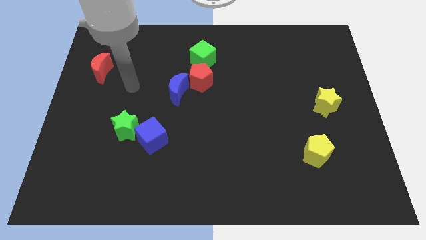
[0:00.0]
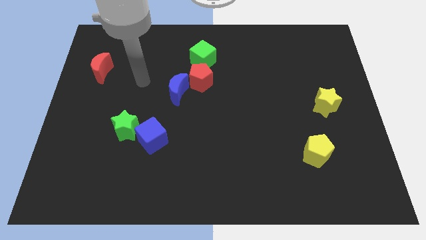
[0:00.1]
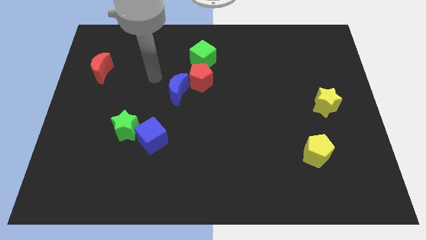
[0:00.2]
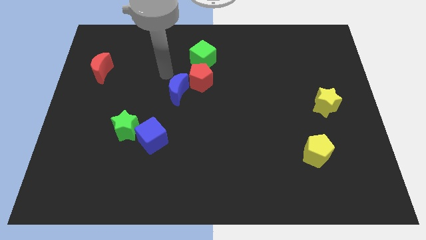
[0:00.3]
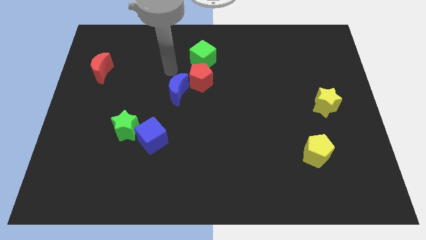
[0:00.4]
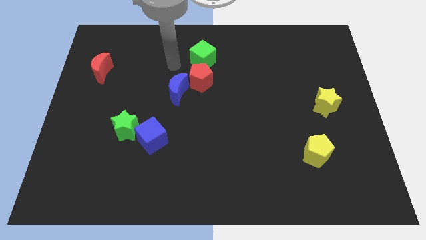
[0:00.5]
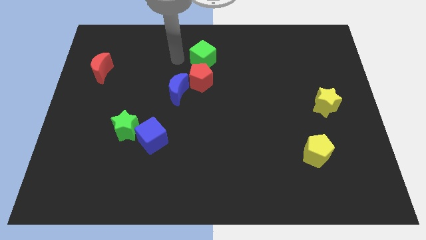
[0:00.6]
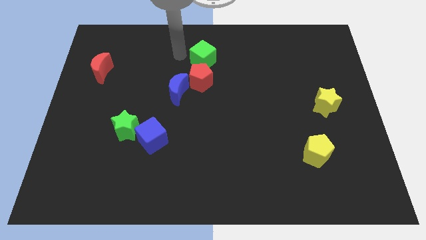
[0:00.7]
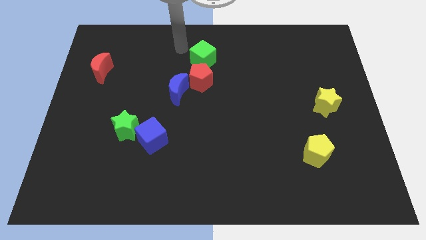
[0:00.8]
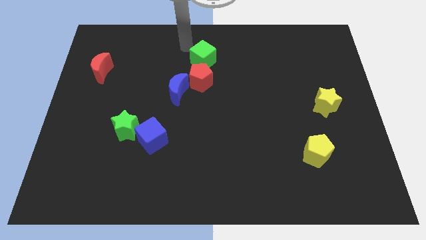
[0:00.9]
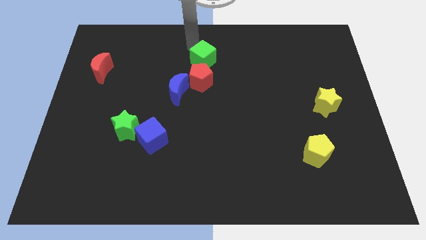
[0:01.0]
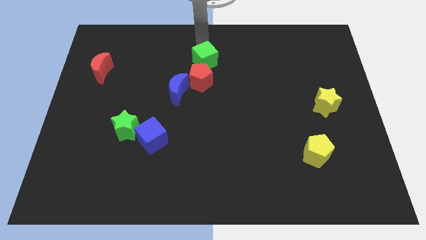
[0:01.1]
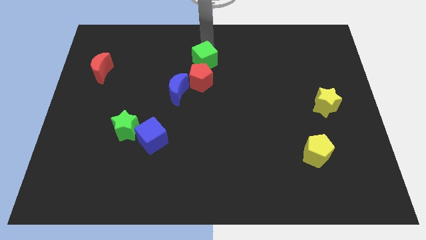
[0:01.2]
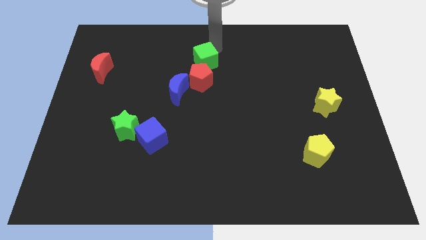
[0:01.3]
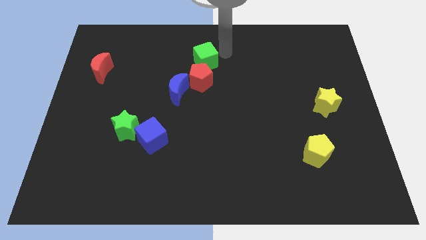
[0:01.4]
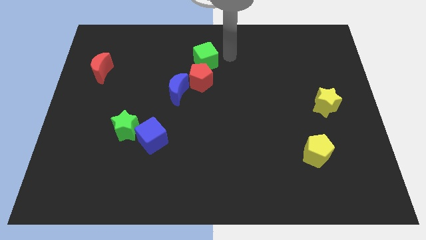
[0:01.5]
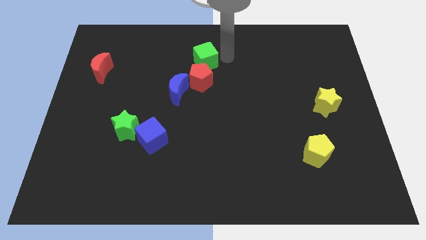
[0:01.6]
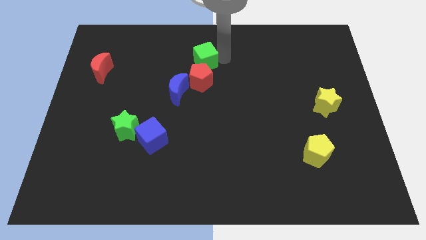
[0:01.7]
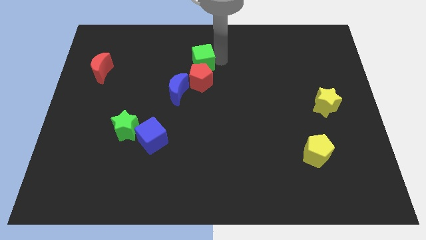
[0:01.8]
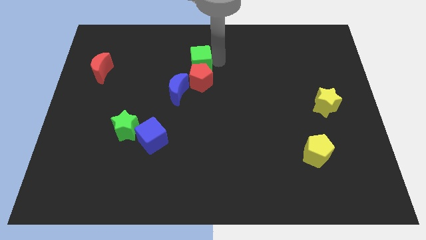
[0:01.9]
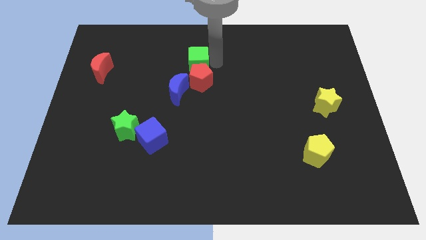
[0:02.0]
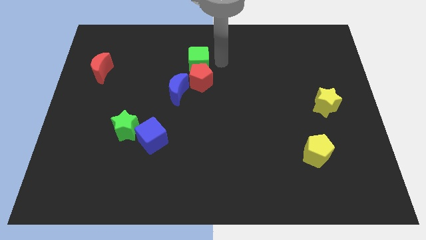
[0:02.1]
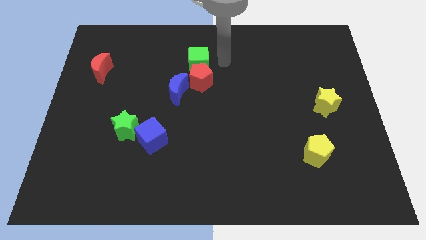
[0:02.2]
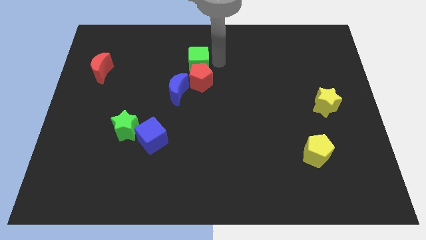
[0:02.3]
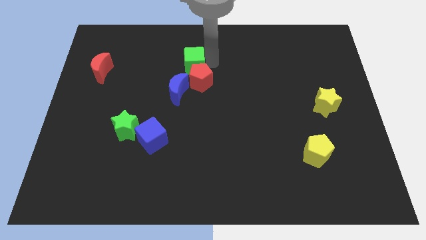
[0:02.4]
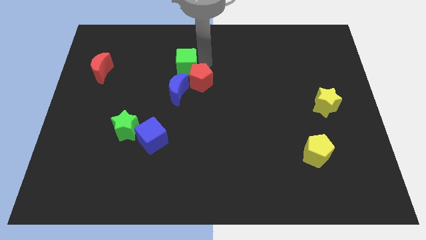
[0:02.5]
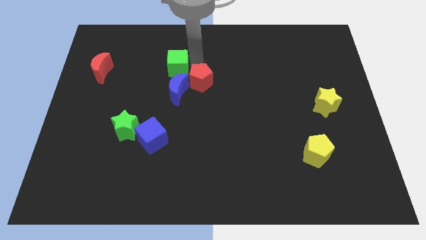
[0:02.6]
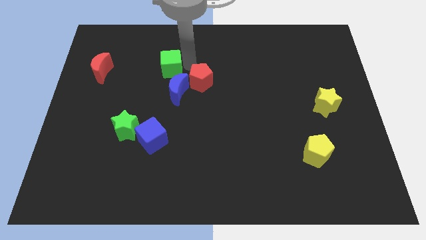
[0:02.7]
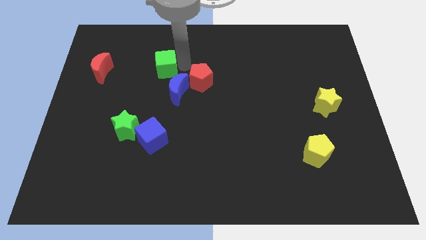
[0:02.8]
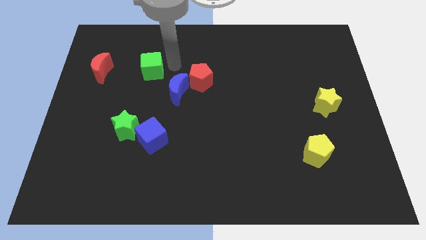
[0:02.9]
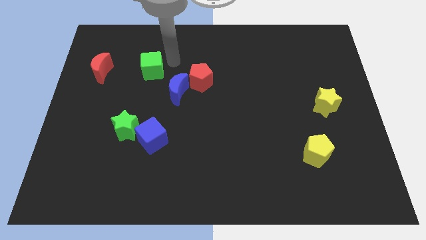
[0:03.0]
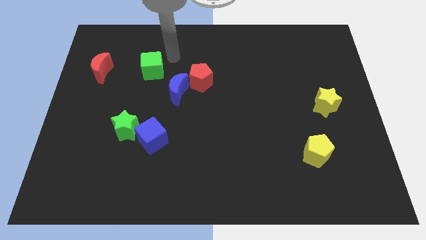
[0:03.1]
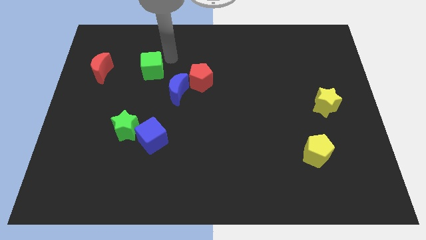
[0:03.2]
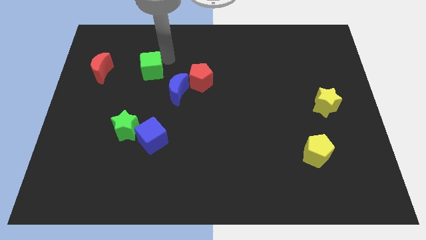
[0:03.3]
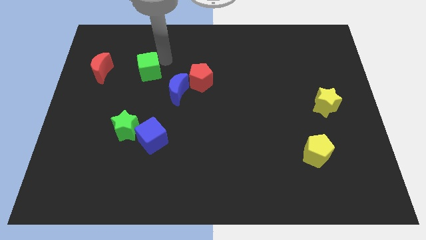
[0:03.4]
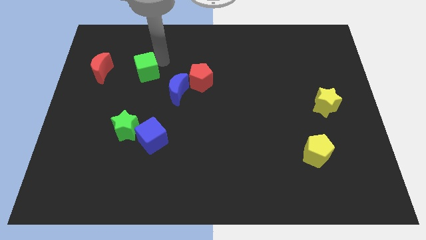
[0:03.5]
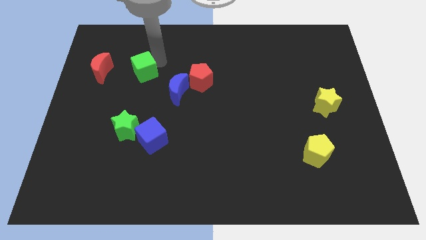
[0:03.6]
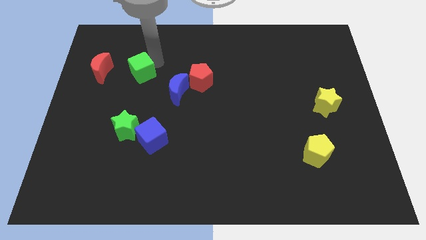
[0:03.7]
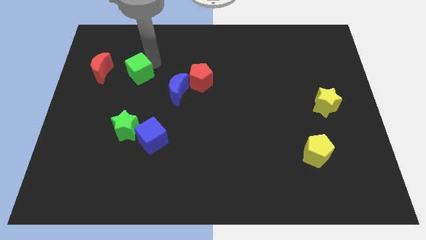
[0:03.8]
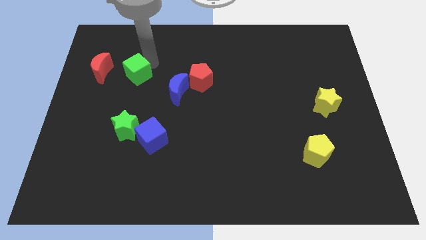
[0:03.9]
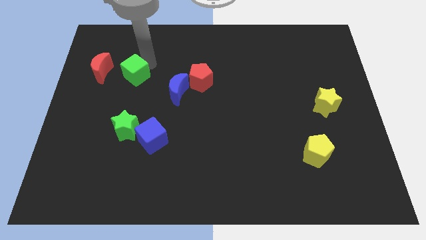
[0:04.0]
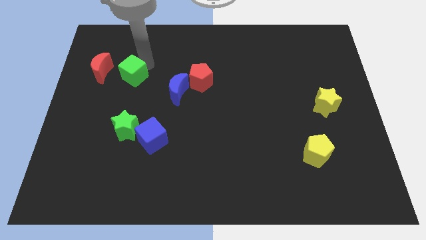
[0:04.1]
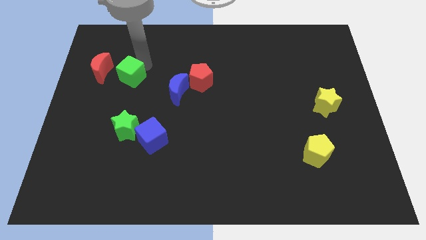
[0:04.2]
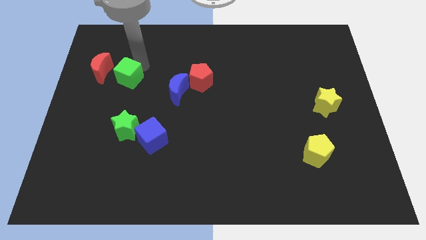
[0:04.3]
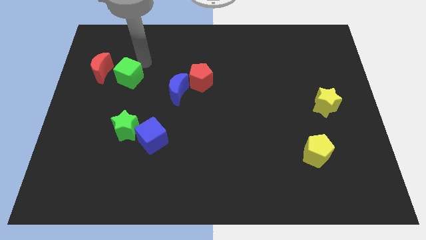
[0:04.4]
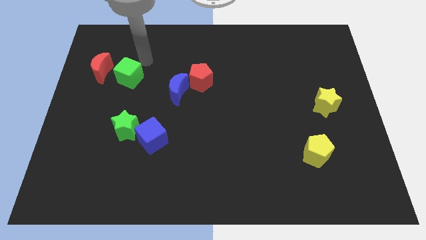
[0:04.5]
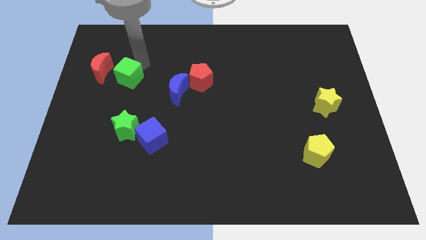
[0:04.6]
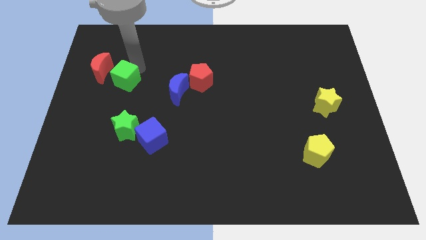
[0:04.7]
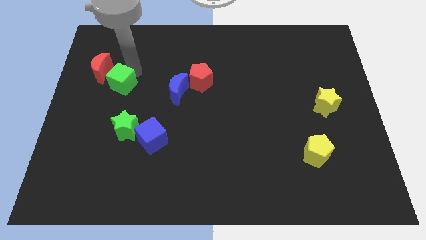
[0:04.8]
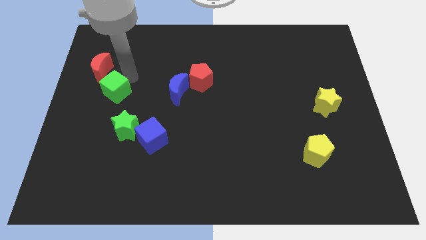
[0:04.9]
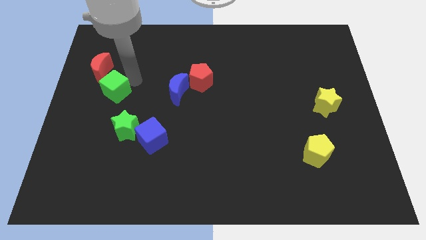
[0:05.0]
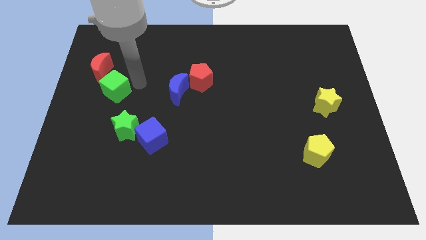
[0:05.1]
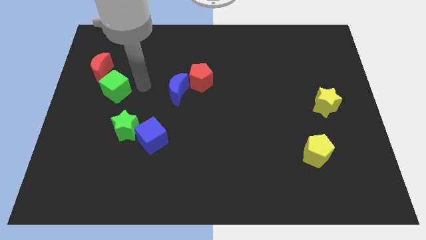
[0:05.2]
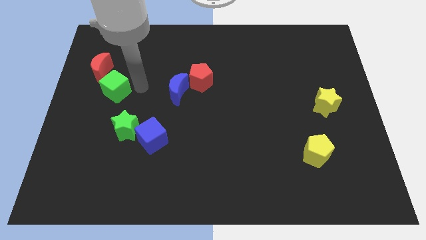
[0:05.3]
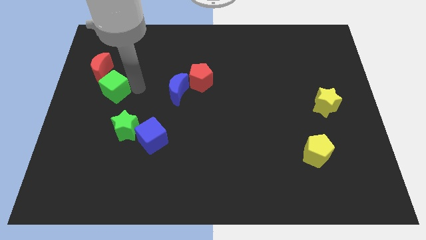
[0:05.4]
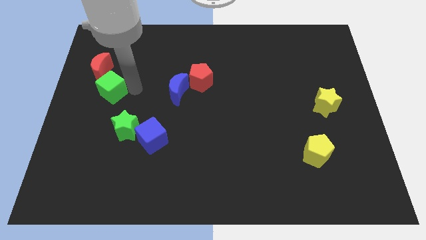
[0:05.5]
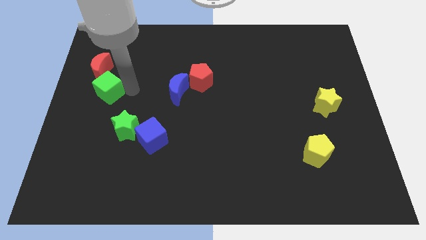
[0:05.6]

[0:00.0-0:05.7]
move the green cube to the left side of the board

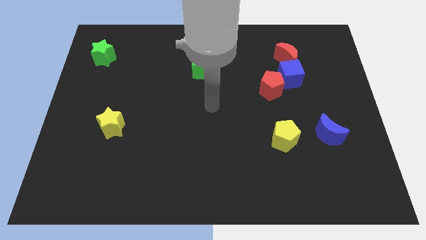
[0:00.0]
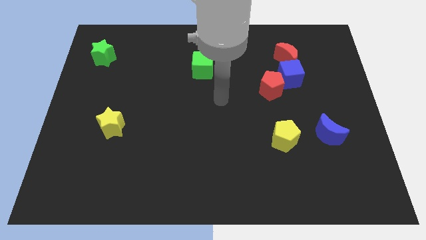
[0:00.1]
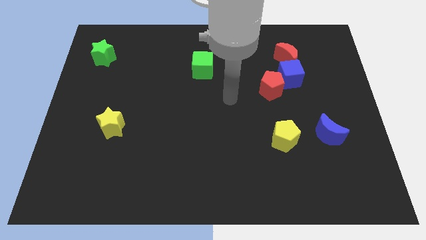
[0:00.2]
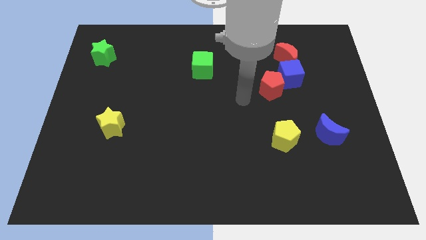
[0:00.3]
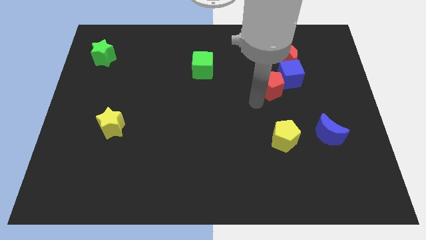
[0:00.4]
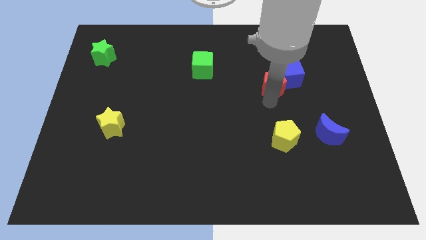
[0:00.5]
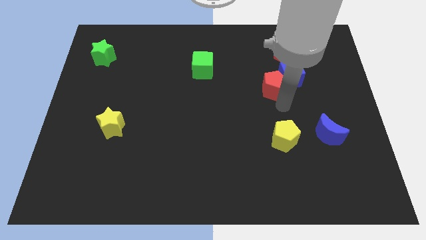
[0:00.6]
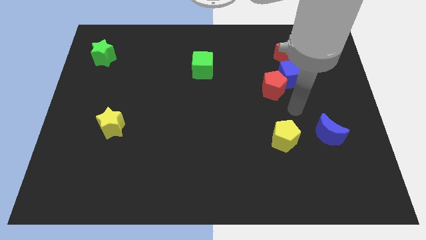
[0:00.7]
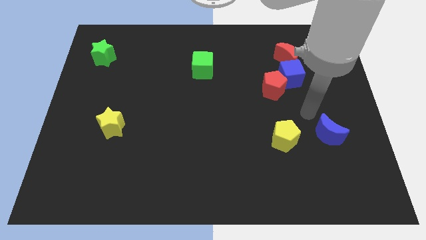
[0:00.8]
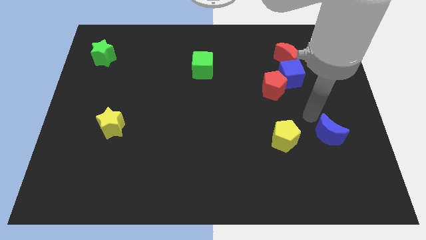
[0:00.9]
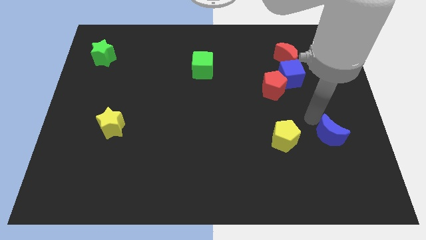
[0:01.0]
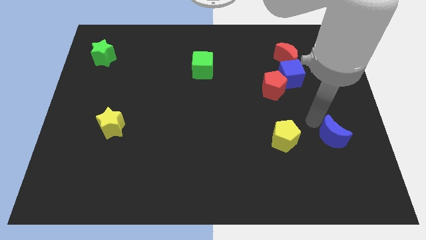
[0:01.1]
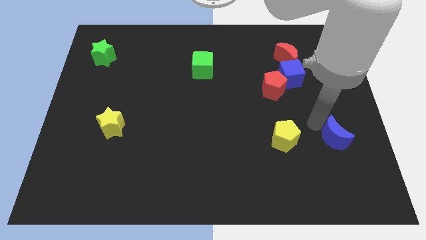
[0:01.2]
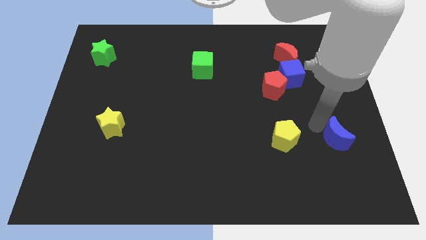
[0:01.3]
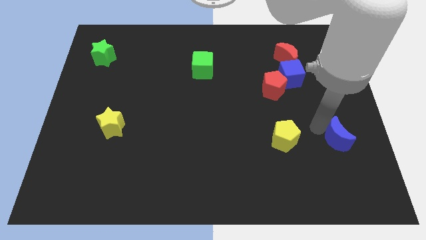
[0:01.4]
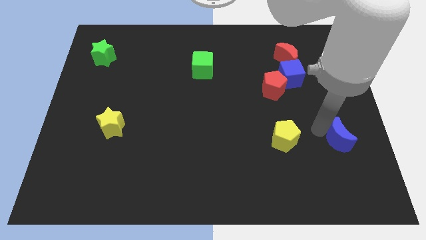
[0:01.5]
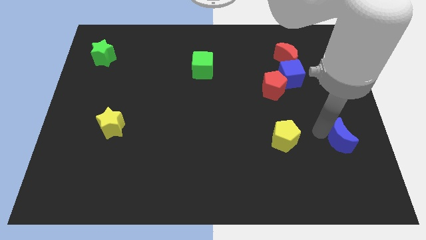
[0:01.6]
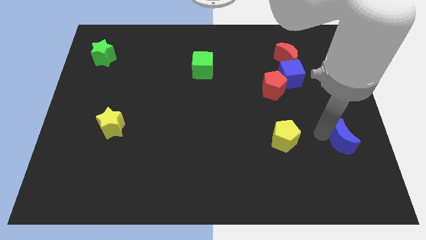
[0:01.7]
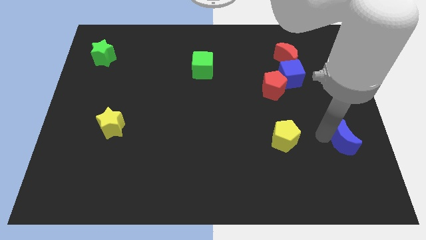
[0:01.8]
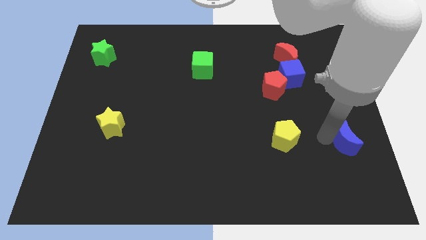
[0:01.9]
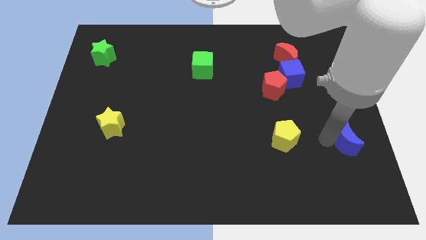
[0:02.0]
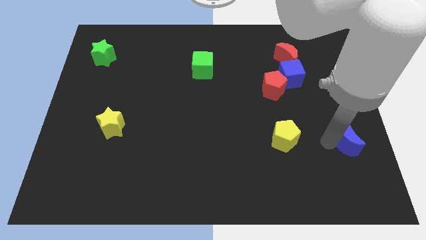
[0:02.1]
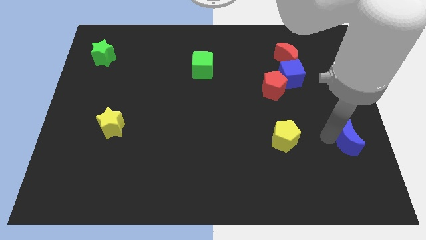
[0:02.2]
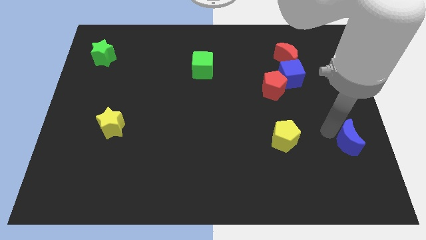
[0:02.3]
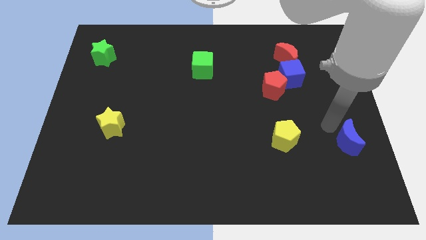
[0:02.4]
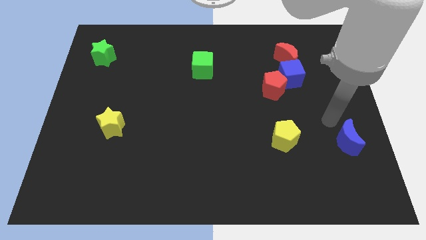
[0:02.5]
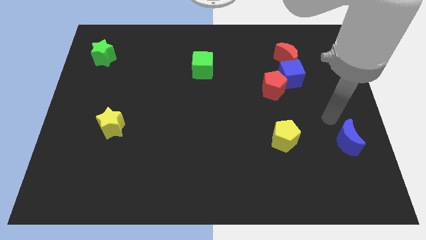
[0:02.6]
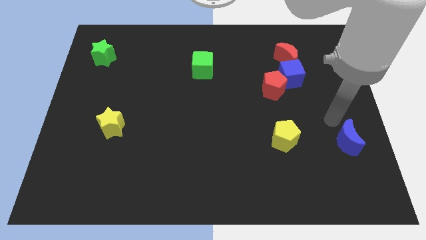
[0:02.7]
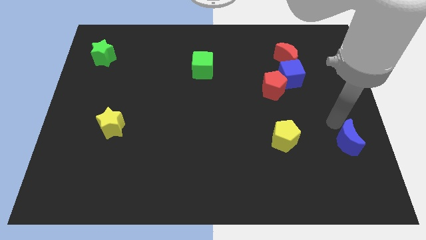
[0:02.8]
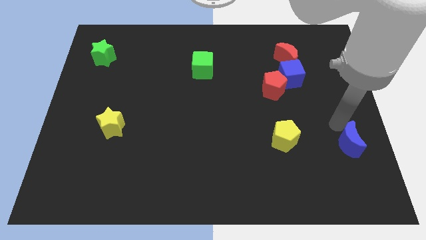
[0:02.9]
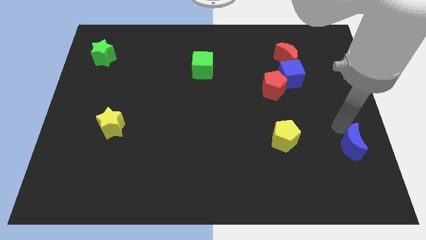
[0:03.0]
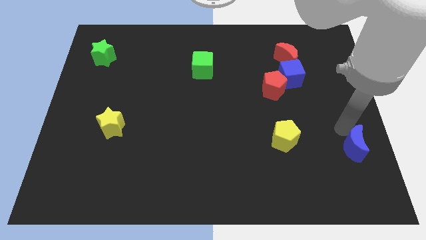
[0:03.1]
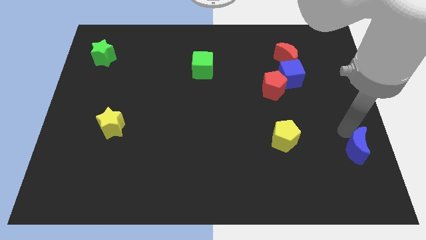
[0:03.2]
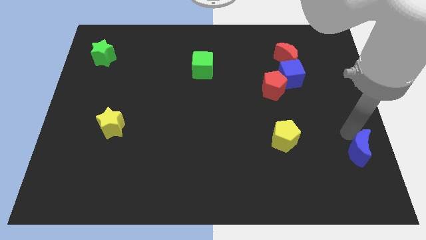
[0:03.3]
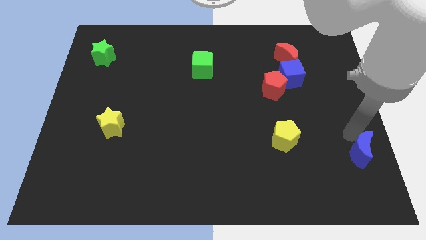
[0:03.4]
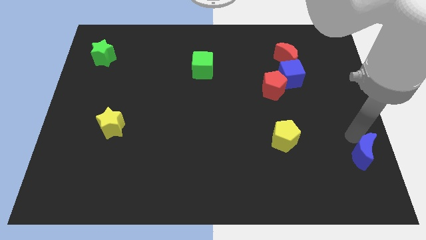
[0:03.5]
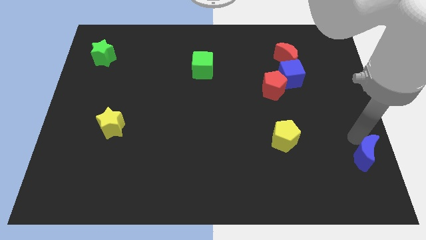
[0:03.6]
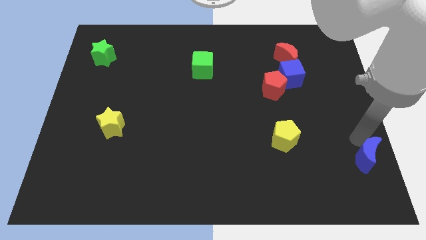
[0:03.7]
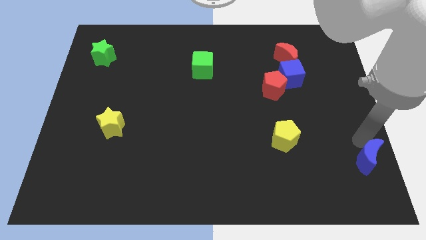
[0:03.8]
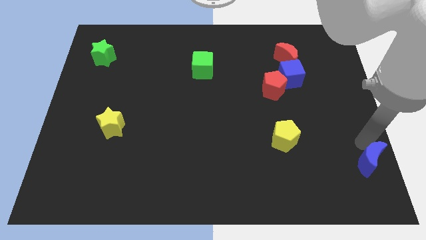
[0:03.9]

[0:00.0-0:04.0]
move the blue moon to the bottom right
